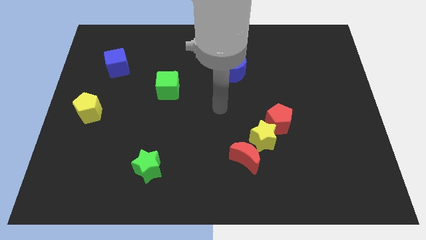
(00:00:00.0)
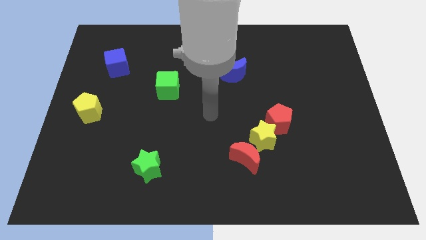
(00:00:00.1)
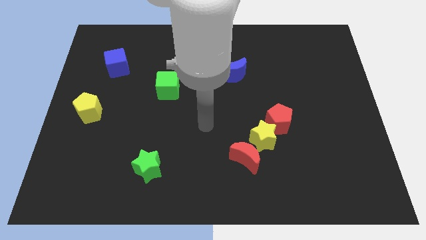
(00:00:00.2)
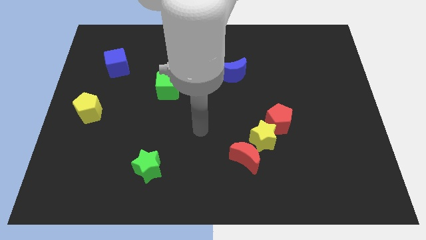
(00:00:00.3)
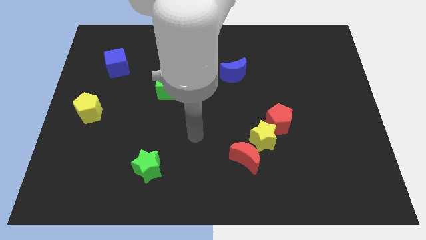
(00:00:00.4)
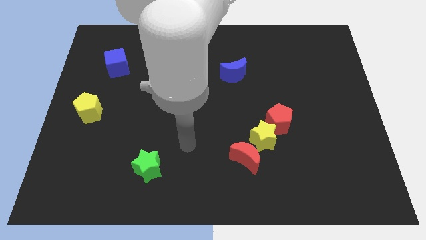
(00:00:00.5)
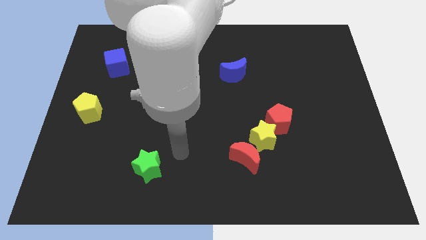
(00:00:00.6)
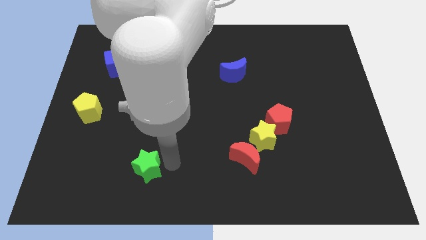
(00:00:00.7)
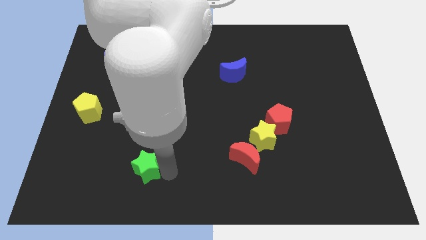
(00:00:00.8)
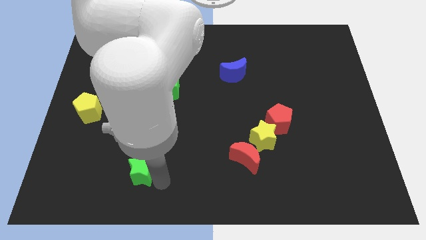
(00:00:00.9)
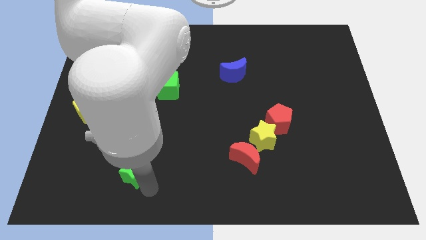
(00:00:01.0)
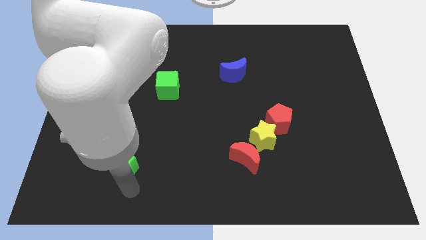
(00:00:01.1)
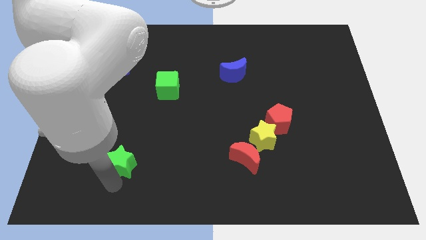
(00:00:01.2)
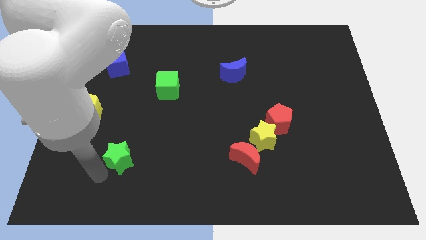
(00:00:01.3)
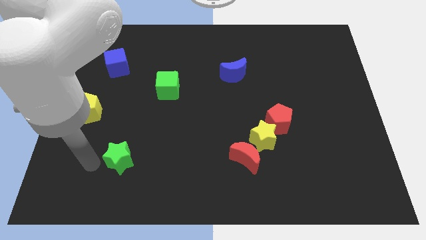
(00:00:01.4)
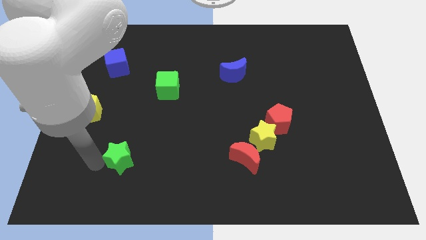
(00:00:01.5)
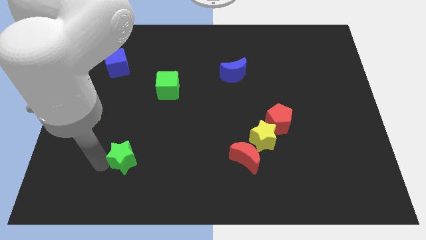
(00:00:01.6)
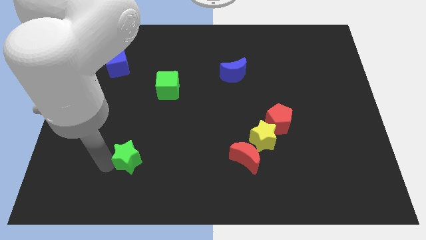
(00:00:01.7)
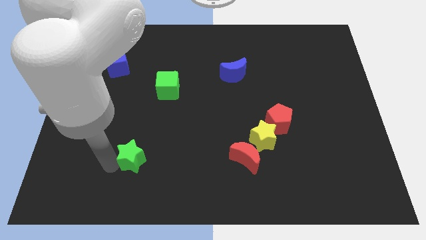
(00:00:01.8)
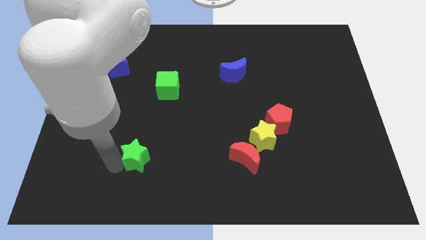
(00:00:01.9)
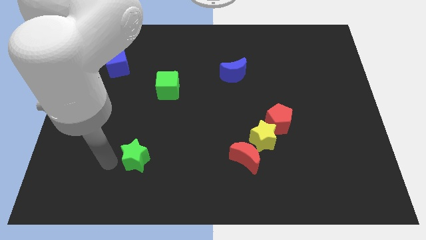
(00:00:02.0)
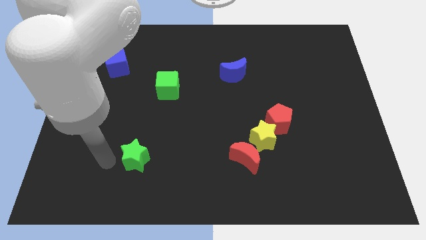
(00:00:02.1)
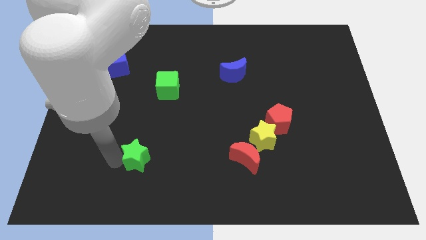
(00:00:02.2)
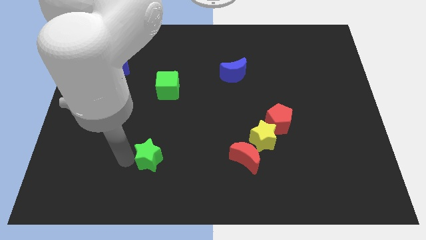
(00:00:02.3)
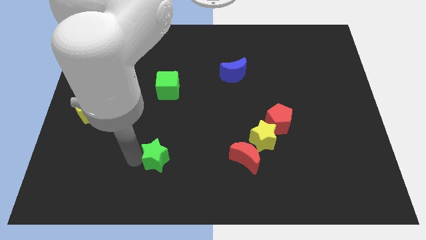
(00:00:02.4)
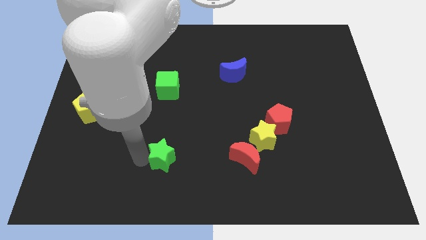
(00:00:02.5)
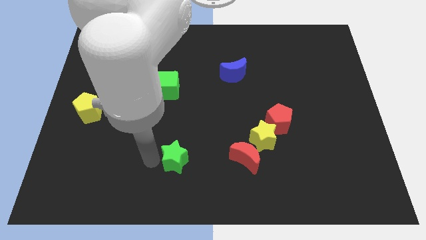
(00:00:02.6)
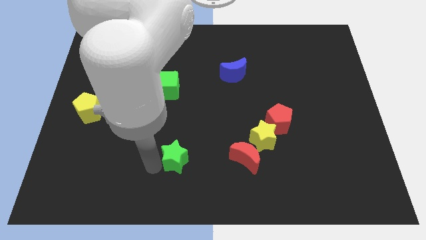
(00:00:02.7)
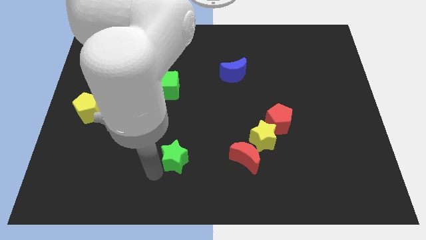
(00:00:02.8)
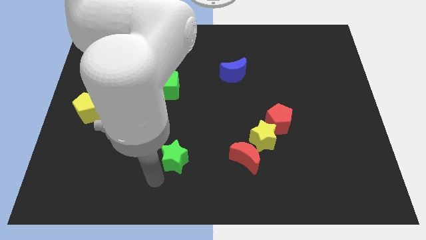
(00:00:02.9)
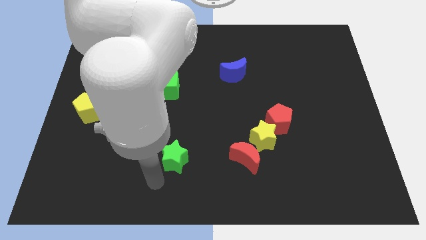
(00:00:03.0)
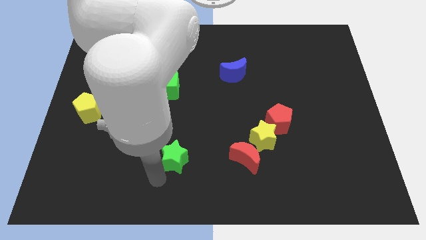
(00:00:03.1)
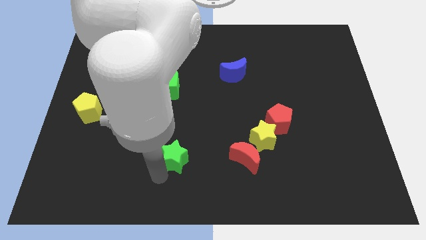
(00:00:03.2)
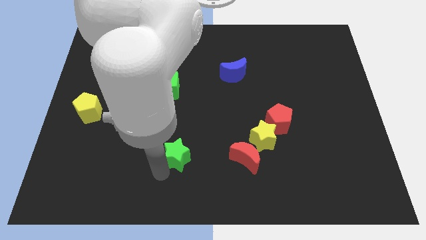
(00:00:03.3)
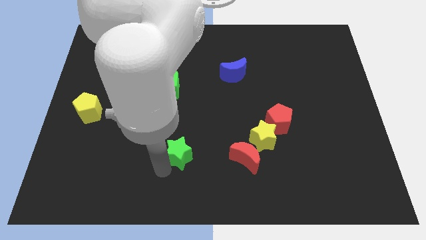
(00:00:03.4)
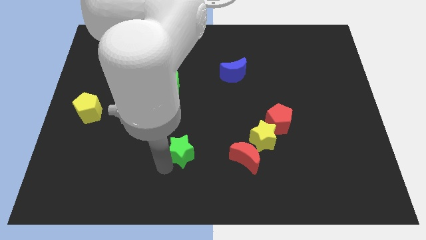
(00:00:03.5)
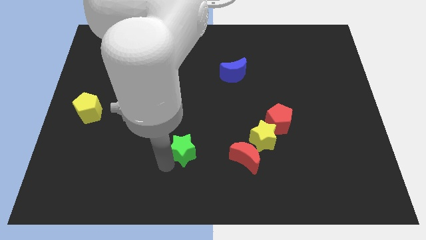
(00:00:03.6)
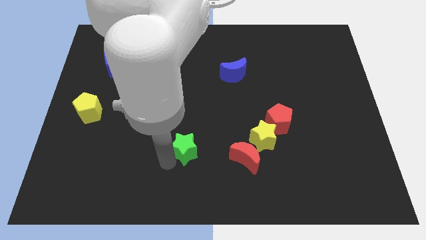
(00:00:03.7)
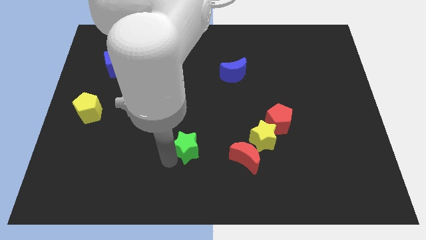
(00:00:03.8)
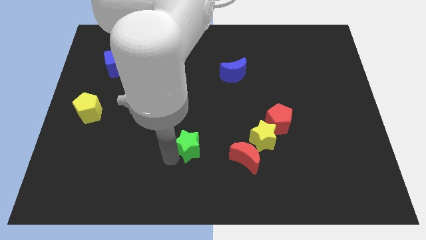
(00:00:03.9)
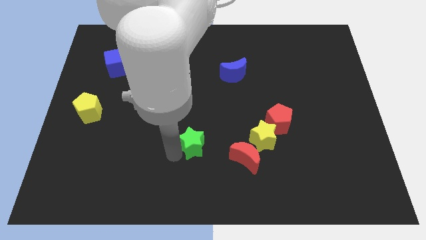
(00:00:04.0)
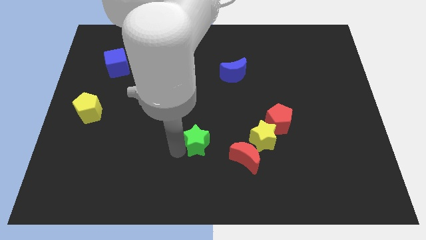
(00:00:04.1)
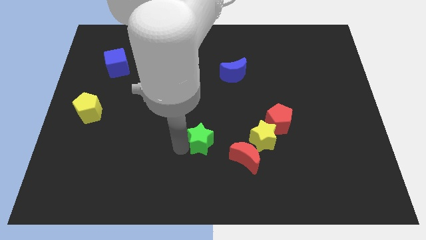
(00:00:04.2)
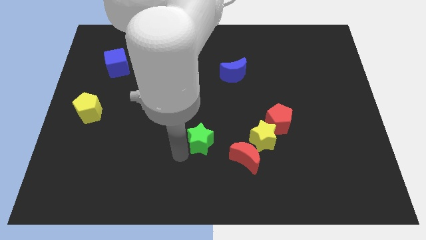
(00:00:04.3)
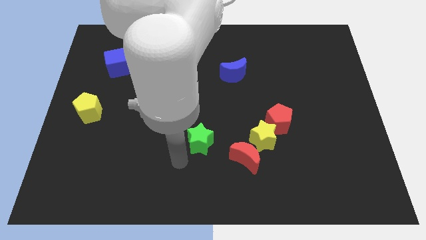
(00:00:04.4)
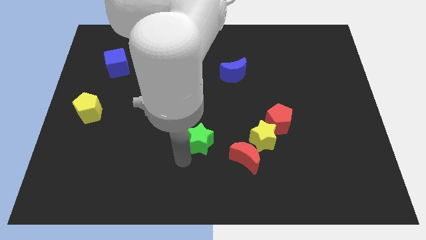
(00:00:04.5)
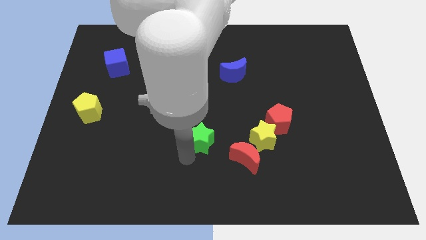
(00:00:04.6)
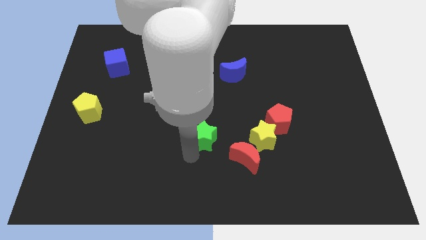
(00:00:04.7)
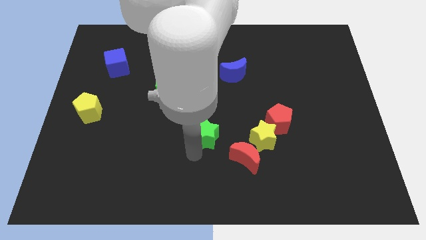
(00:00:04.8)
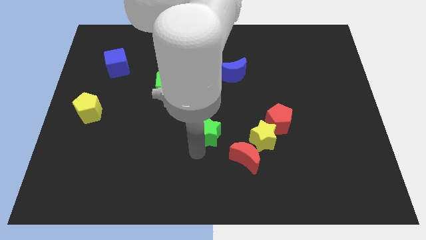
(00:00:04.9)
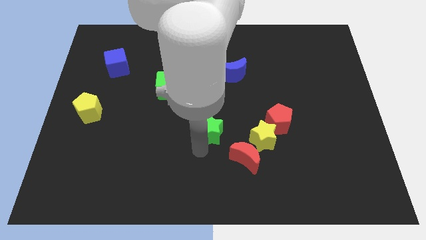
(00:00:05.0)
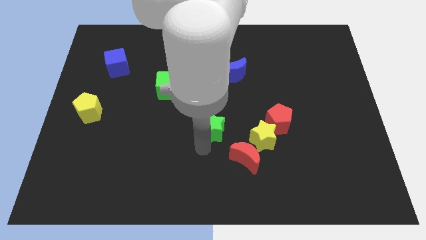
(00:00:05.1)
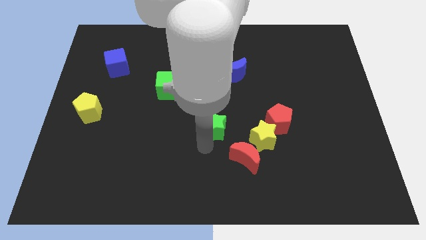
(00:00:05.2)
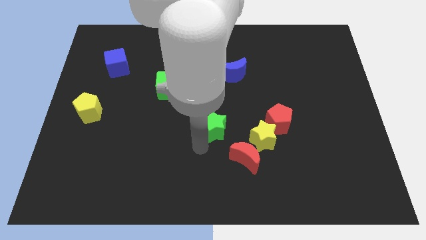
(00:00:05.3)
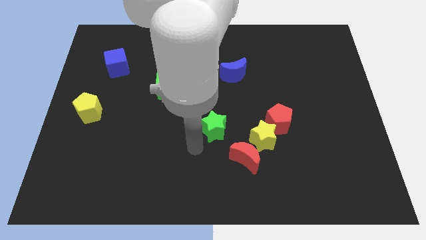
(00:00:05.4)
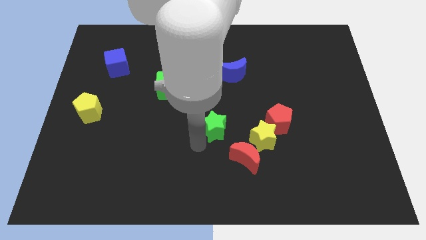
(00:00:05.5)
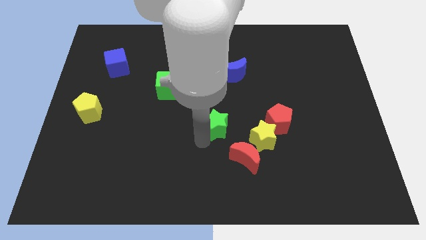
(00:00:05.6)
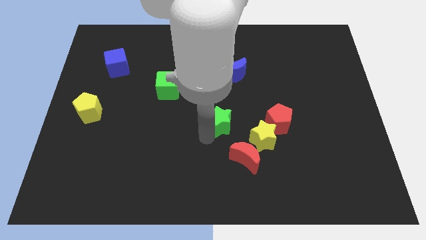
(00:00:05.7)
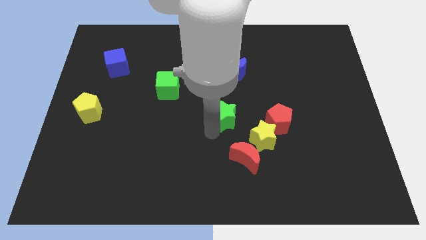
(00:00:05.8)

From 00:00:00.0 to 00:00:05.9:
move the green star up and to the right

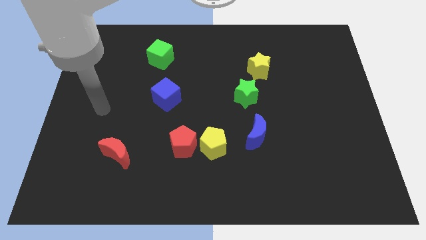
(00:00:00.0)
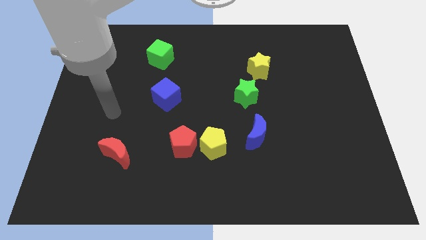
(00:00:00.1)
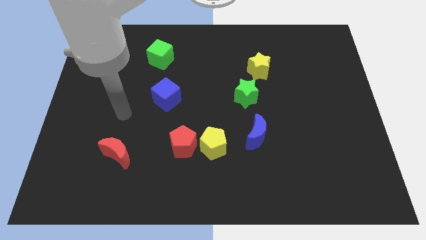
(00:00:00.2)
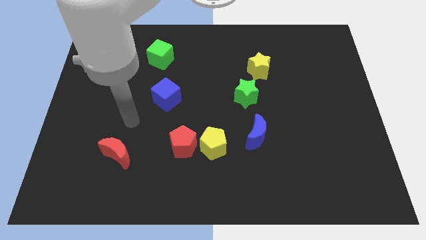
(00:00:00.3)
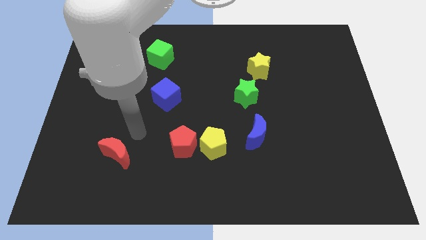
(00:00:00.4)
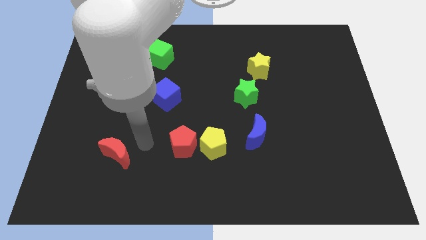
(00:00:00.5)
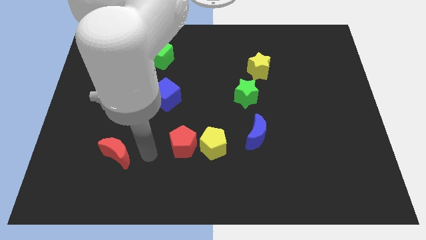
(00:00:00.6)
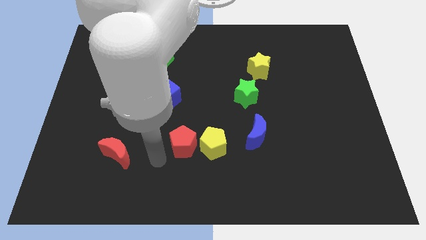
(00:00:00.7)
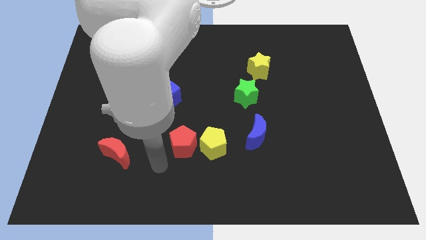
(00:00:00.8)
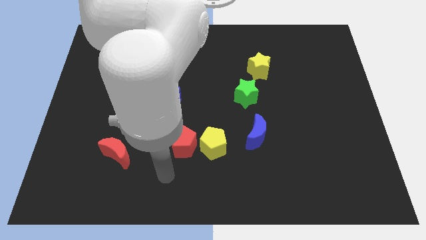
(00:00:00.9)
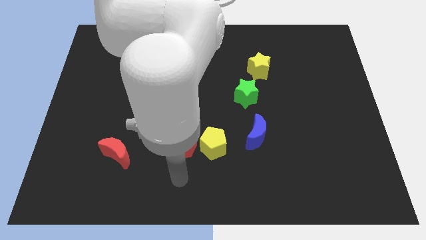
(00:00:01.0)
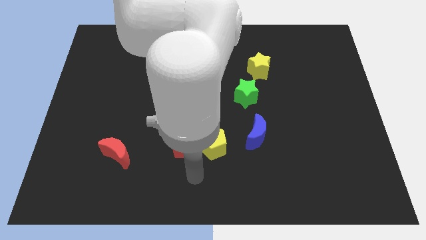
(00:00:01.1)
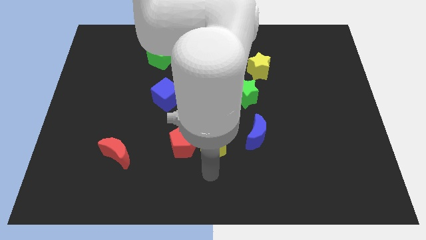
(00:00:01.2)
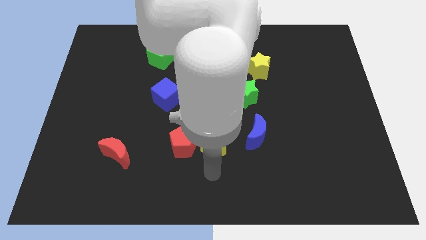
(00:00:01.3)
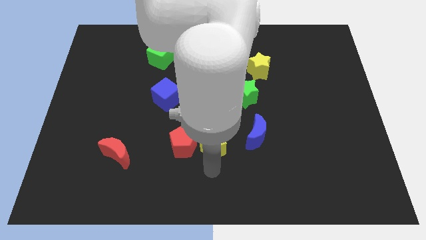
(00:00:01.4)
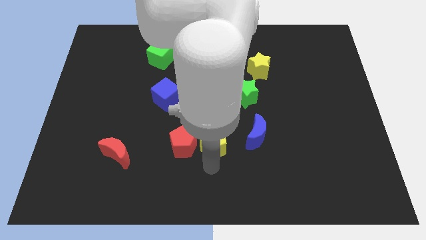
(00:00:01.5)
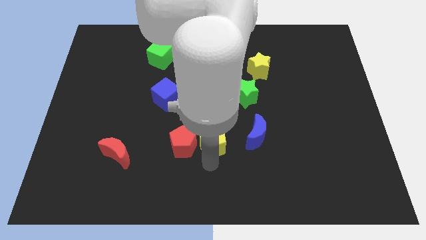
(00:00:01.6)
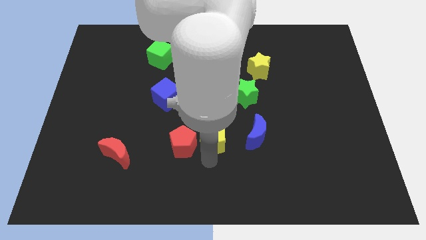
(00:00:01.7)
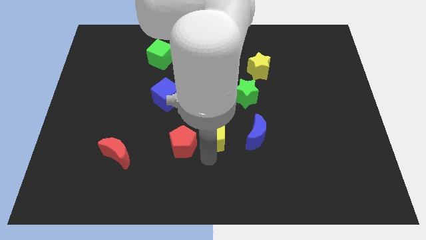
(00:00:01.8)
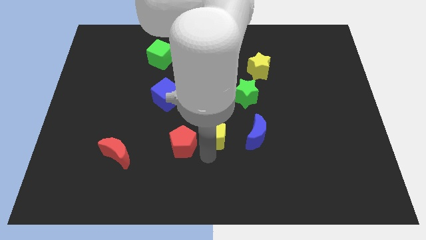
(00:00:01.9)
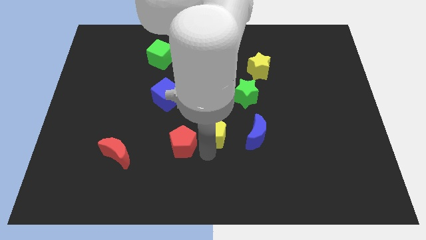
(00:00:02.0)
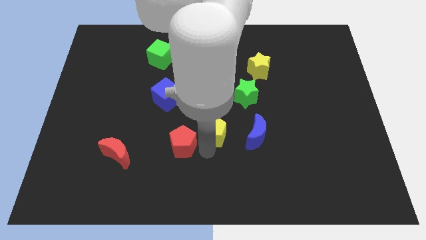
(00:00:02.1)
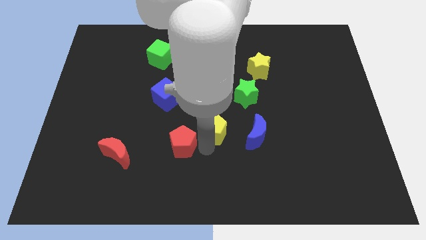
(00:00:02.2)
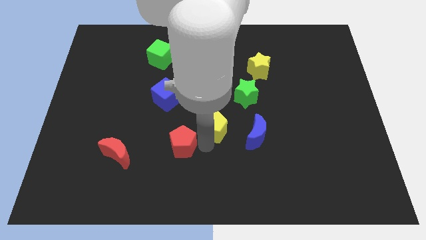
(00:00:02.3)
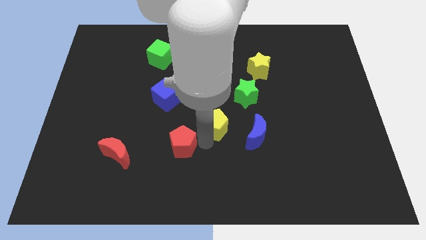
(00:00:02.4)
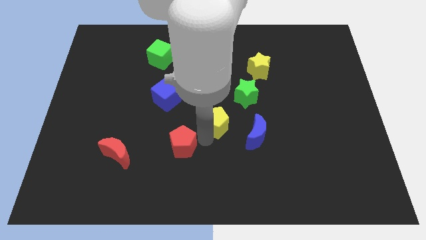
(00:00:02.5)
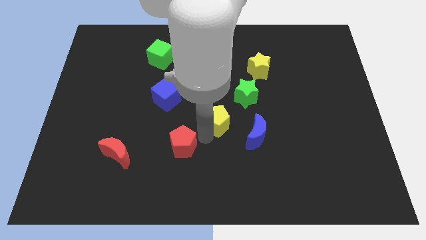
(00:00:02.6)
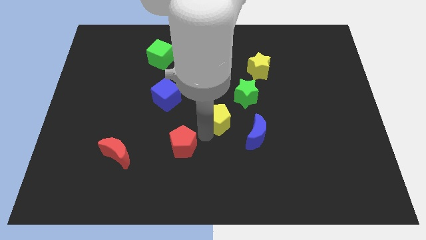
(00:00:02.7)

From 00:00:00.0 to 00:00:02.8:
slightly push the yellow pentagon up
